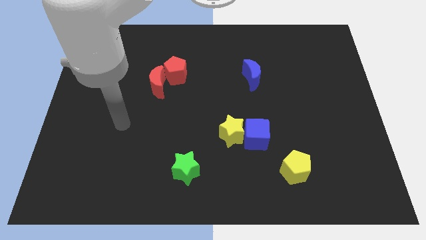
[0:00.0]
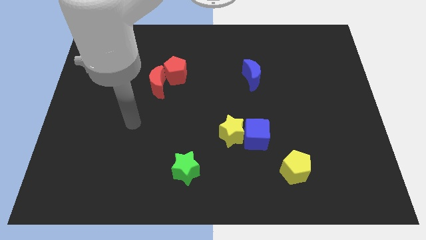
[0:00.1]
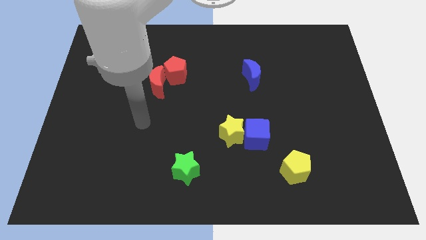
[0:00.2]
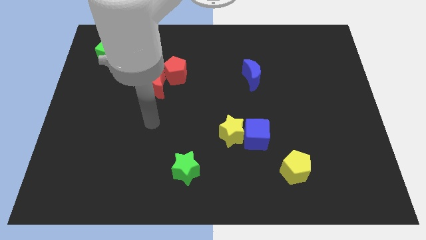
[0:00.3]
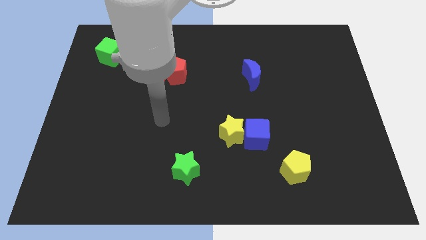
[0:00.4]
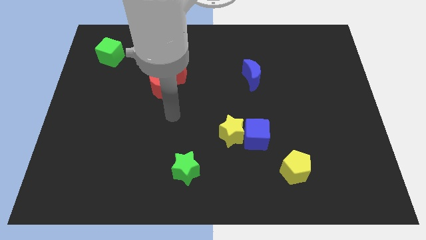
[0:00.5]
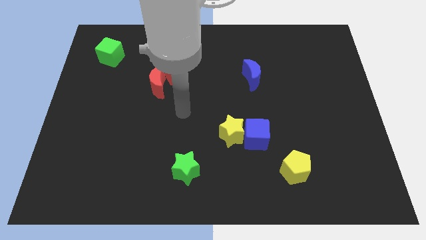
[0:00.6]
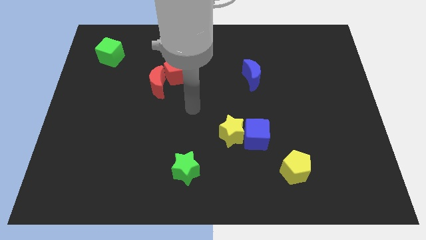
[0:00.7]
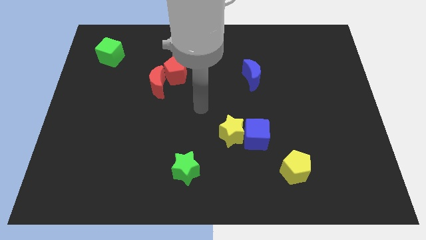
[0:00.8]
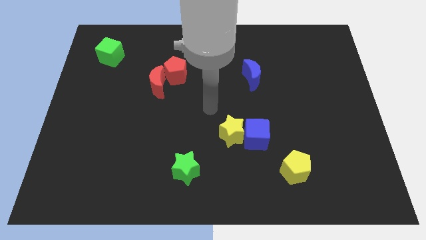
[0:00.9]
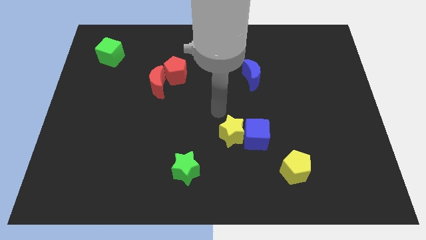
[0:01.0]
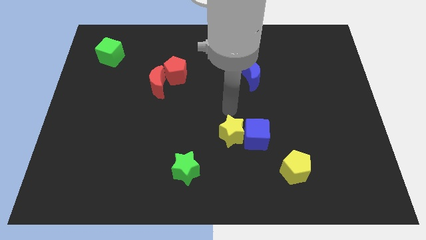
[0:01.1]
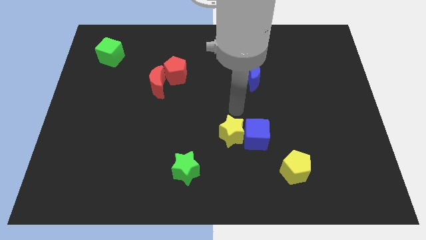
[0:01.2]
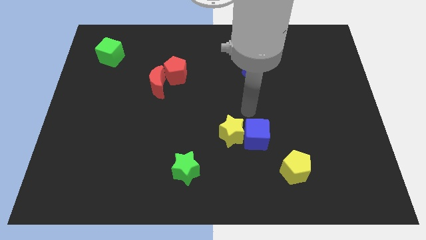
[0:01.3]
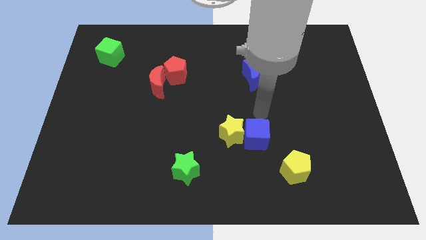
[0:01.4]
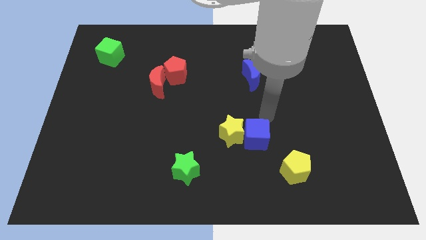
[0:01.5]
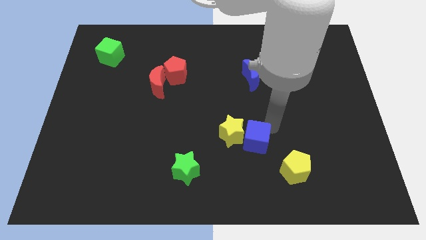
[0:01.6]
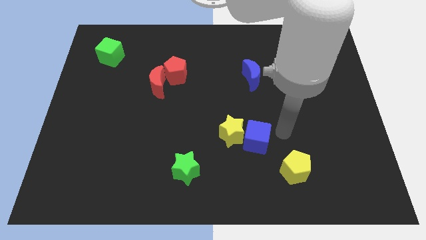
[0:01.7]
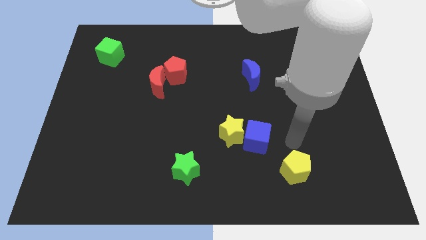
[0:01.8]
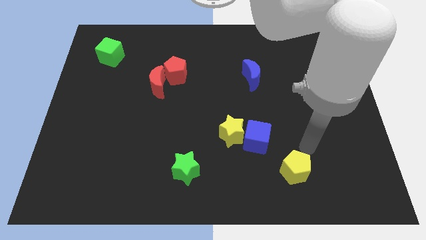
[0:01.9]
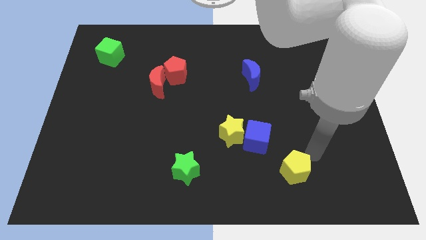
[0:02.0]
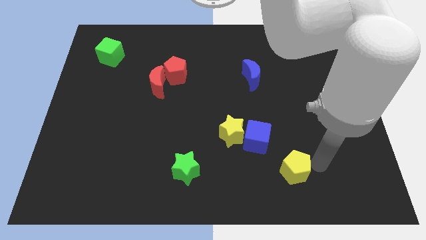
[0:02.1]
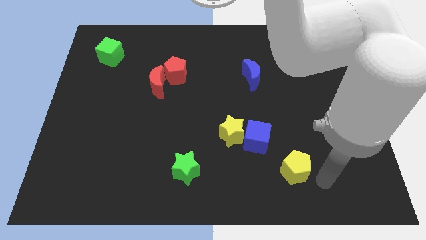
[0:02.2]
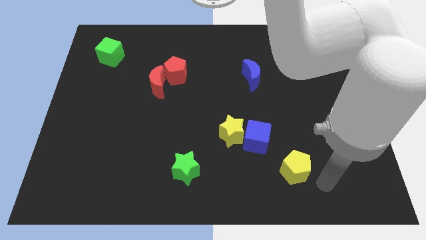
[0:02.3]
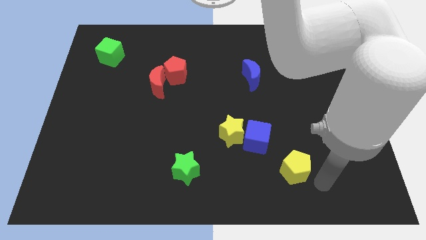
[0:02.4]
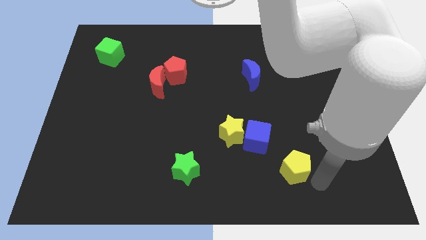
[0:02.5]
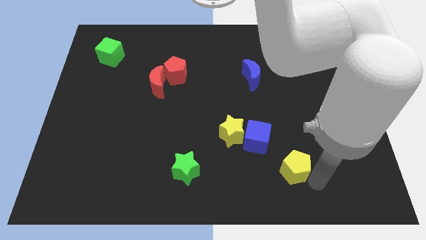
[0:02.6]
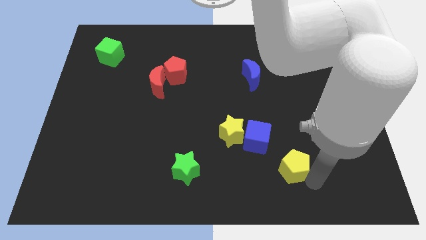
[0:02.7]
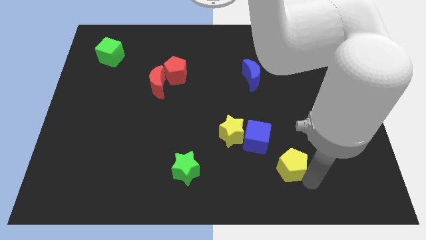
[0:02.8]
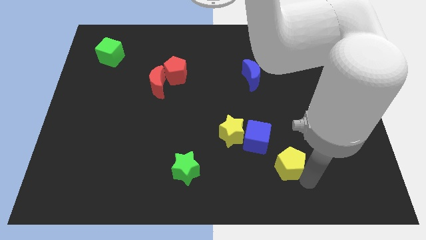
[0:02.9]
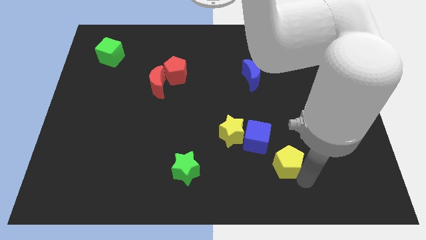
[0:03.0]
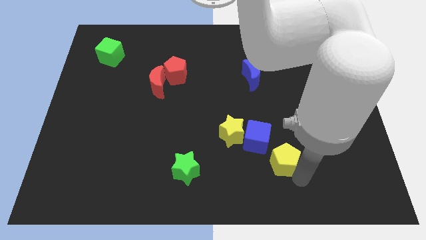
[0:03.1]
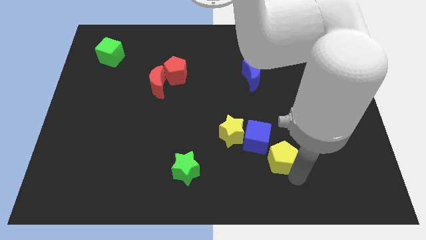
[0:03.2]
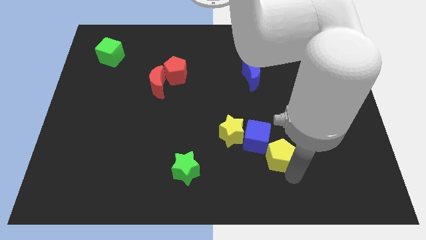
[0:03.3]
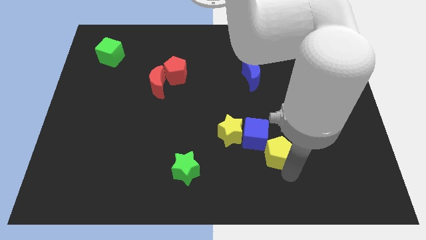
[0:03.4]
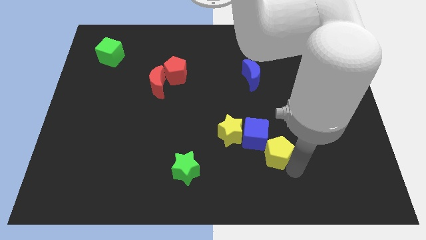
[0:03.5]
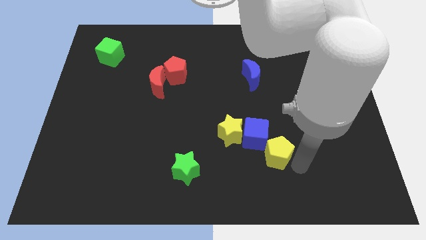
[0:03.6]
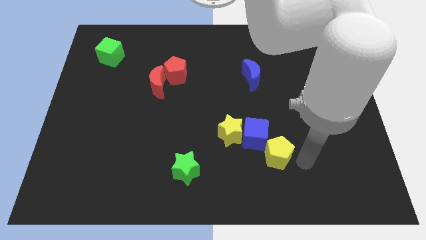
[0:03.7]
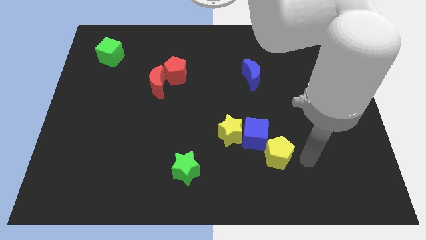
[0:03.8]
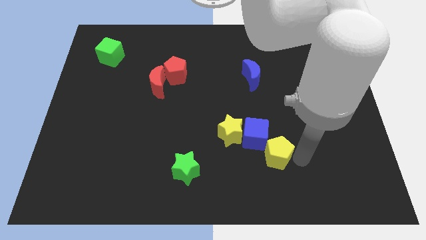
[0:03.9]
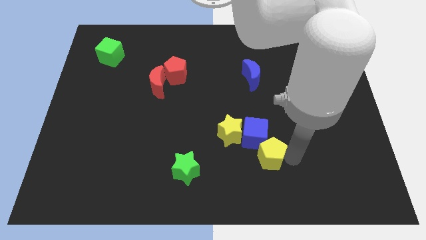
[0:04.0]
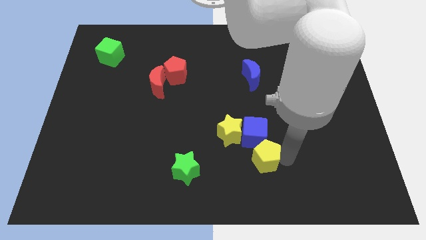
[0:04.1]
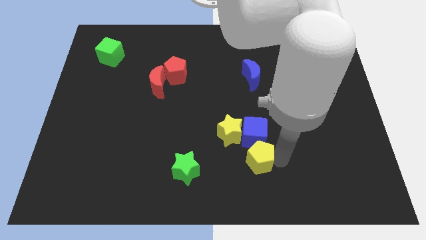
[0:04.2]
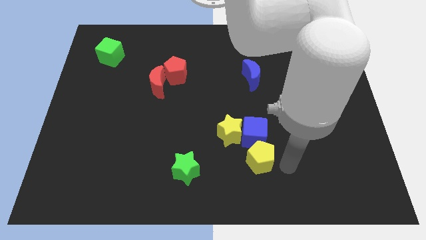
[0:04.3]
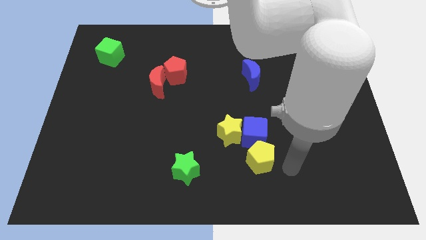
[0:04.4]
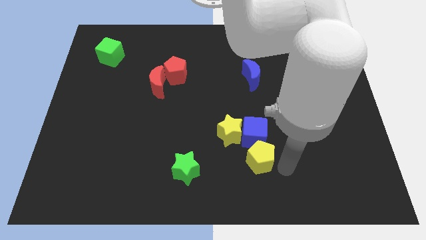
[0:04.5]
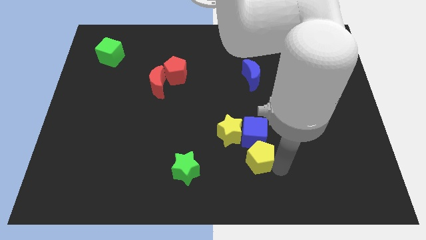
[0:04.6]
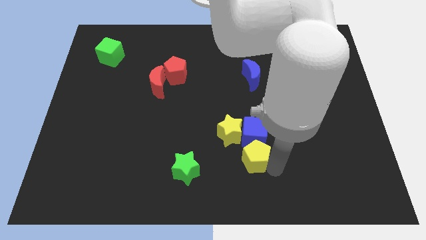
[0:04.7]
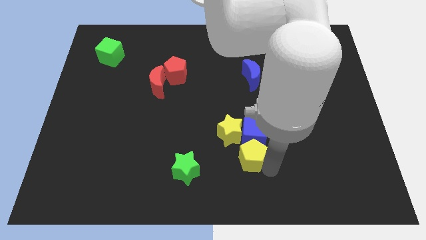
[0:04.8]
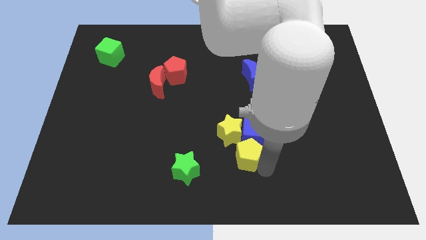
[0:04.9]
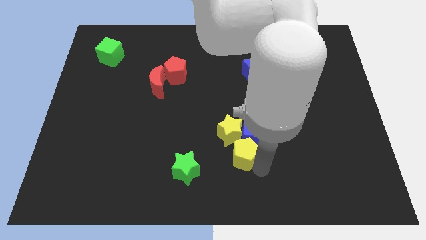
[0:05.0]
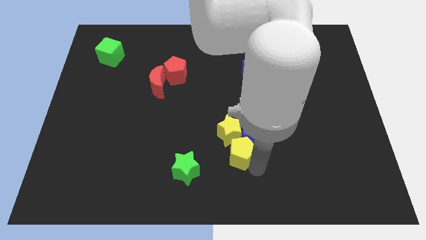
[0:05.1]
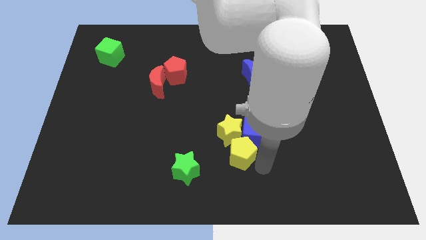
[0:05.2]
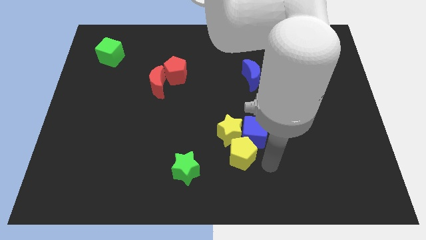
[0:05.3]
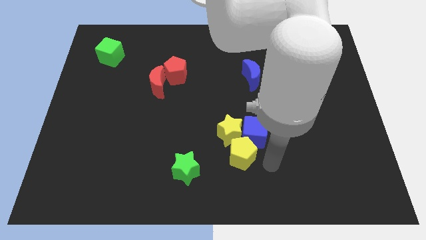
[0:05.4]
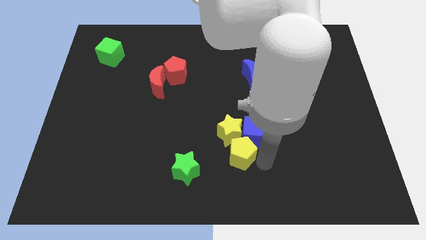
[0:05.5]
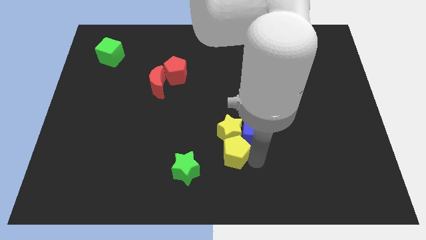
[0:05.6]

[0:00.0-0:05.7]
move the yellow pentagon to the top right of the green star
